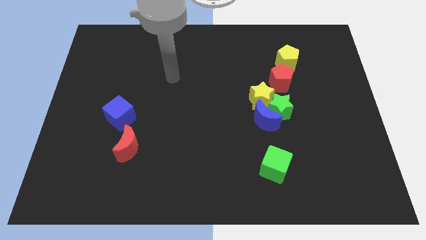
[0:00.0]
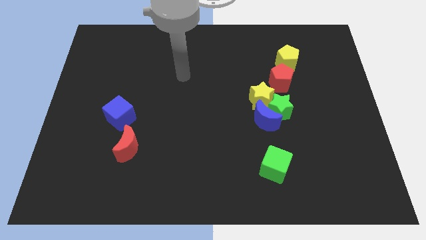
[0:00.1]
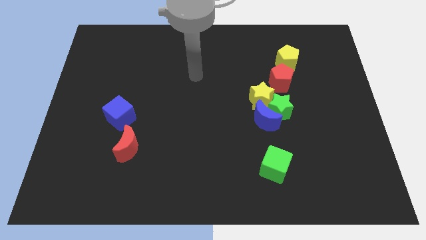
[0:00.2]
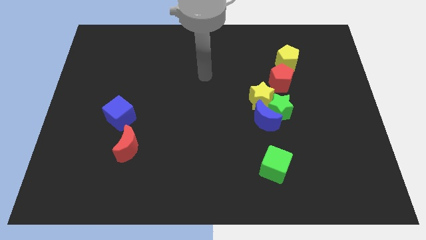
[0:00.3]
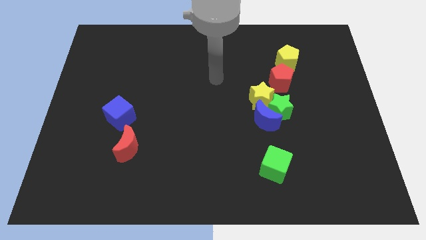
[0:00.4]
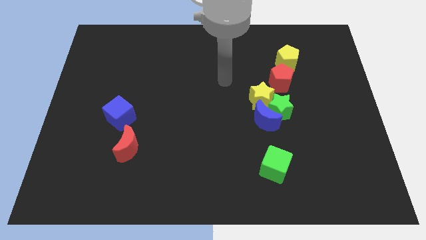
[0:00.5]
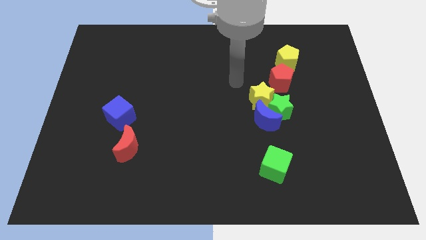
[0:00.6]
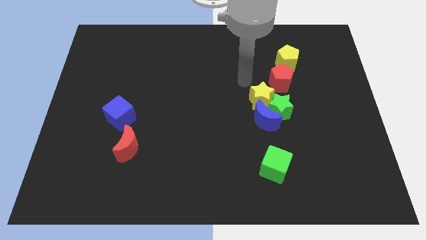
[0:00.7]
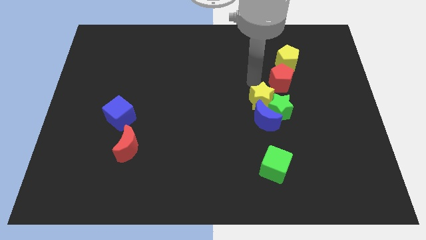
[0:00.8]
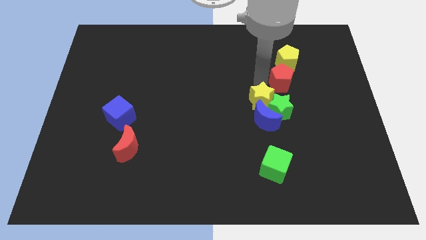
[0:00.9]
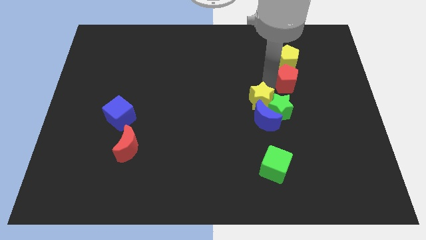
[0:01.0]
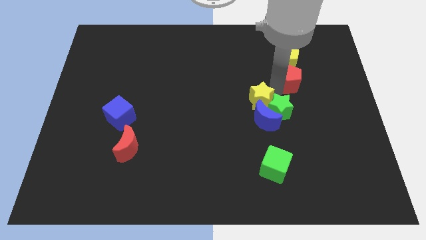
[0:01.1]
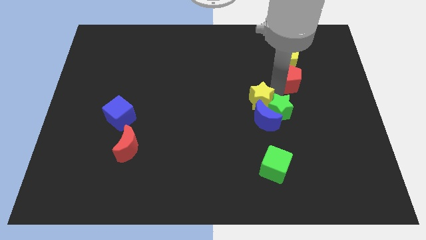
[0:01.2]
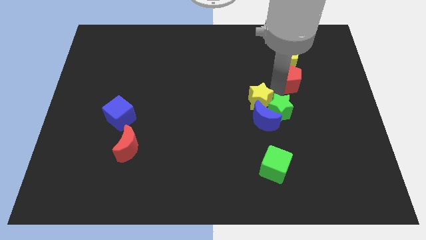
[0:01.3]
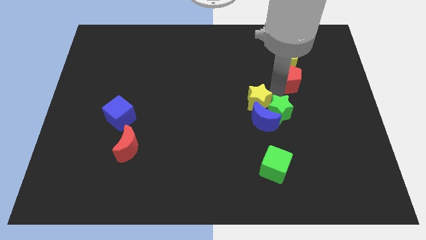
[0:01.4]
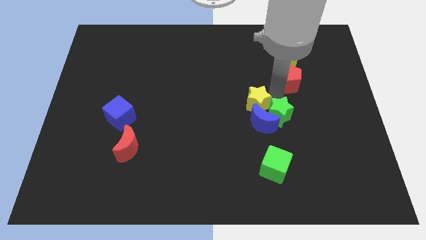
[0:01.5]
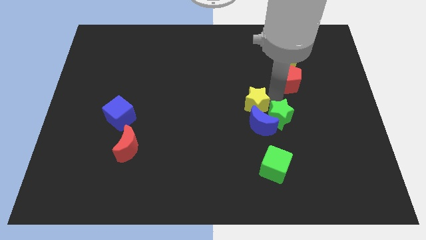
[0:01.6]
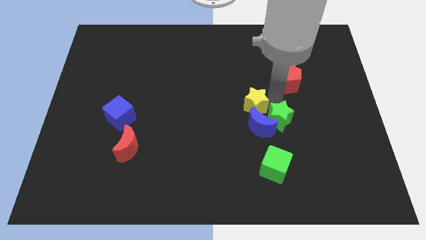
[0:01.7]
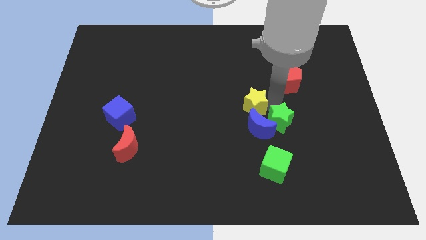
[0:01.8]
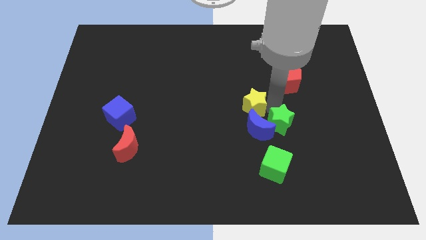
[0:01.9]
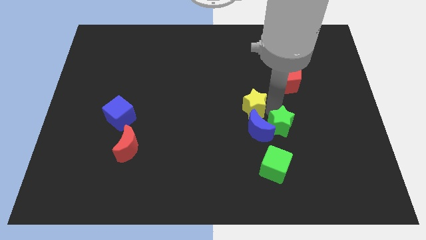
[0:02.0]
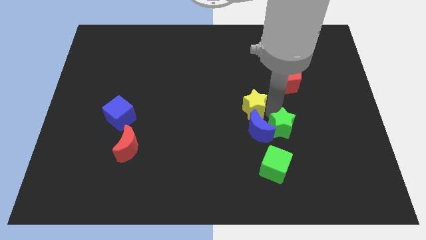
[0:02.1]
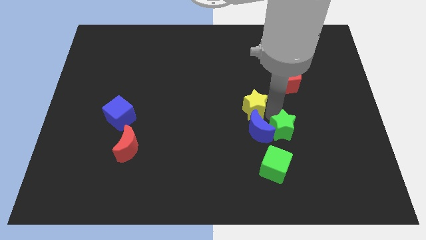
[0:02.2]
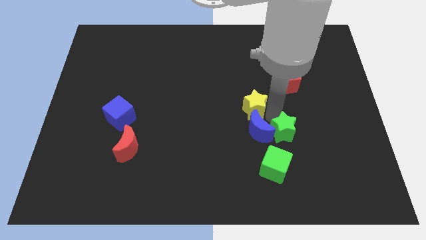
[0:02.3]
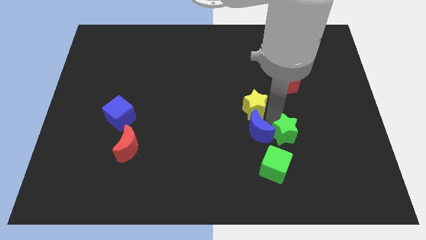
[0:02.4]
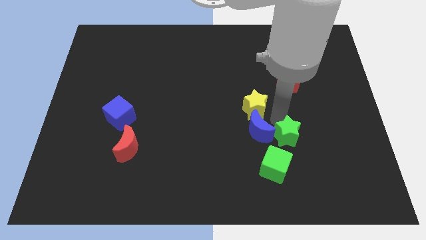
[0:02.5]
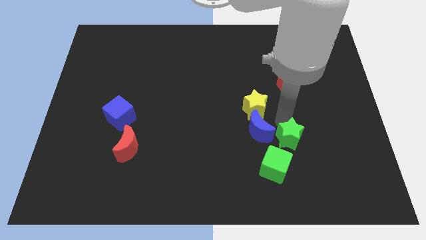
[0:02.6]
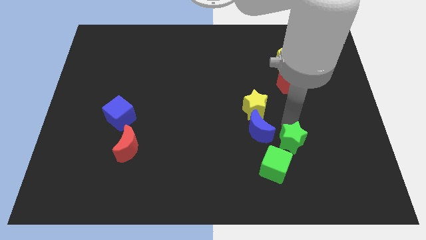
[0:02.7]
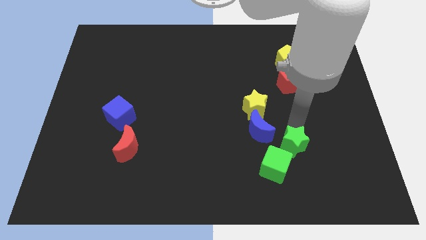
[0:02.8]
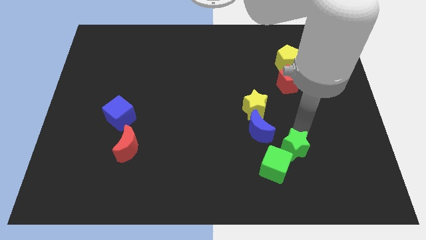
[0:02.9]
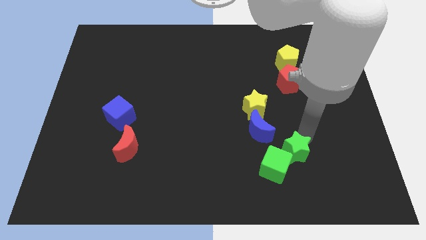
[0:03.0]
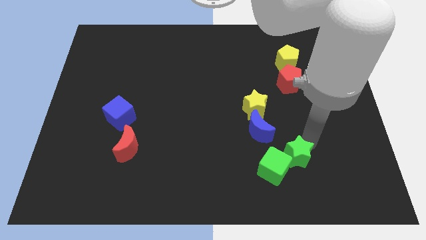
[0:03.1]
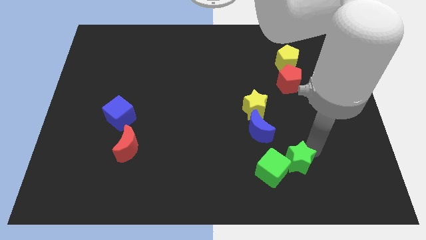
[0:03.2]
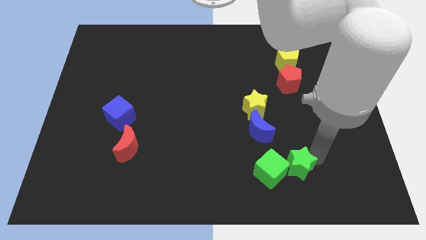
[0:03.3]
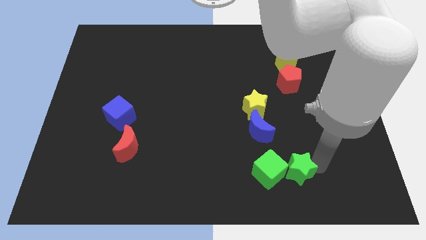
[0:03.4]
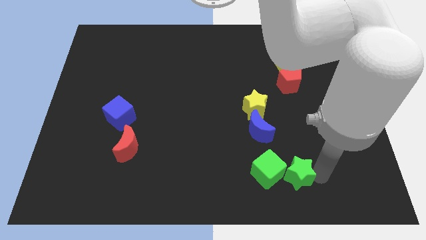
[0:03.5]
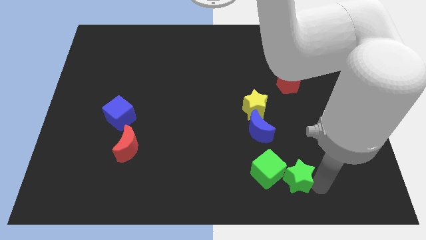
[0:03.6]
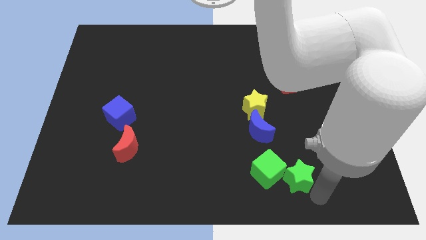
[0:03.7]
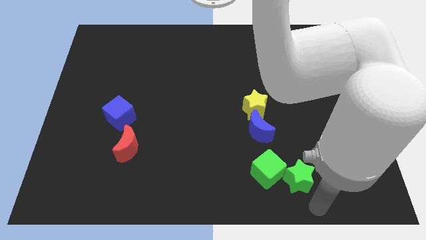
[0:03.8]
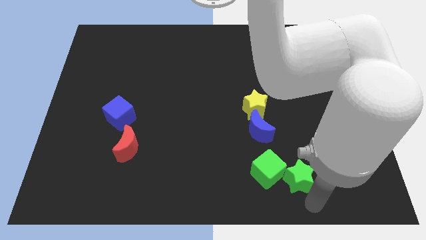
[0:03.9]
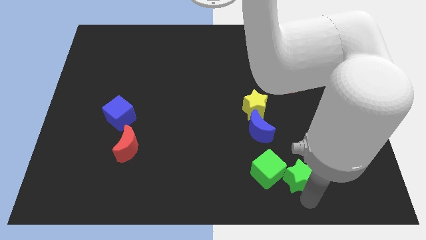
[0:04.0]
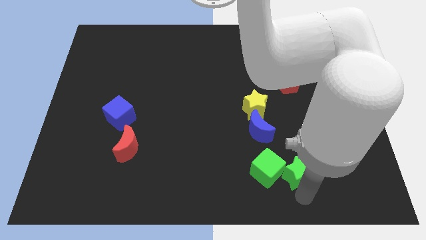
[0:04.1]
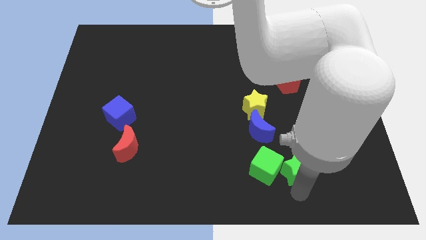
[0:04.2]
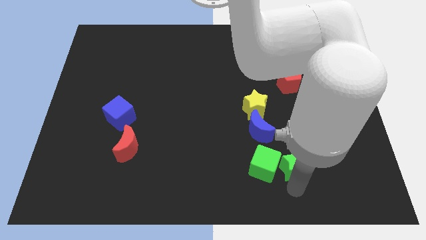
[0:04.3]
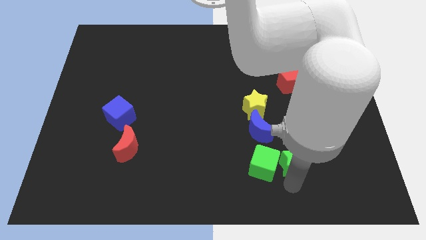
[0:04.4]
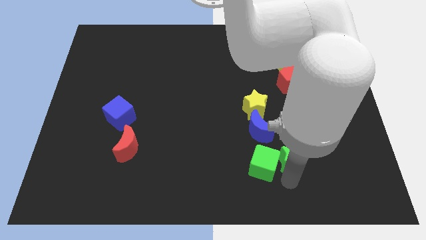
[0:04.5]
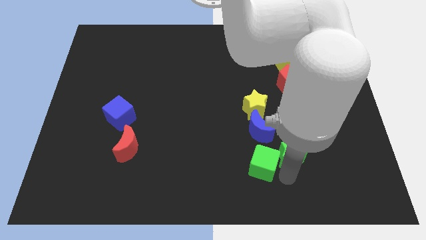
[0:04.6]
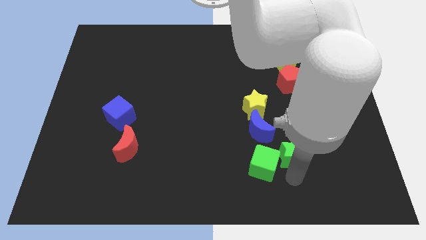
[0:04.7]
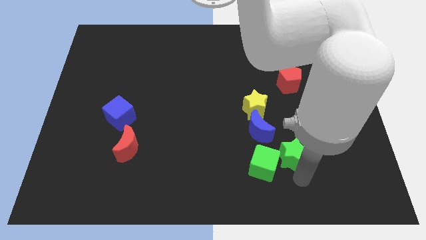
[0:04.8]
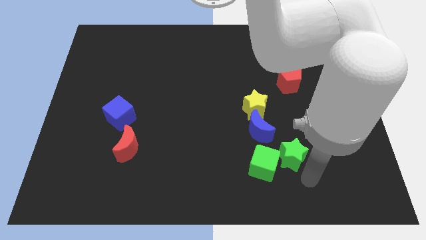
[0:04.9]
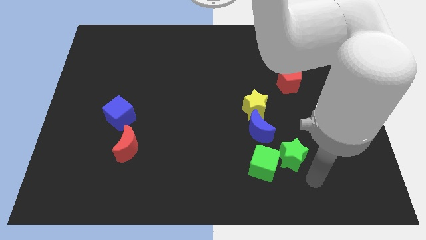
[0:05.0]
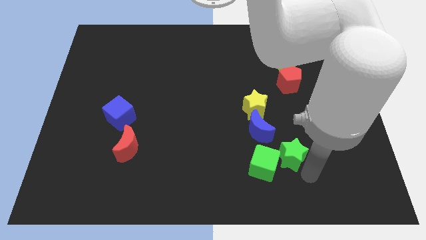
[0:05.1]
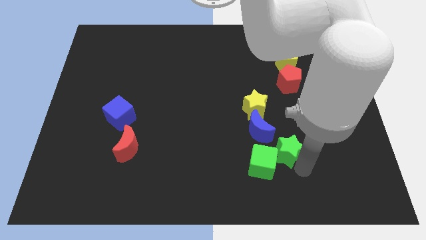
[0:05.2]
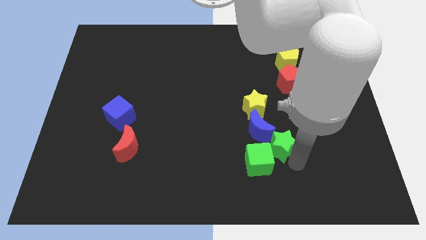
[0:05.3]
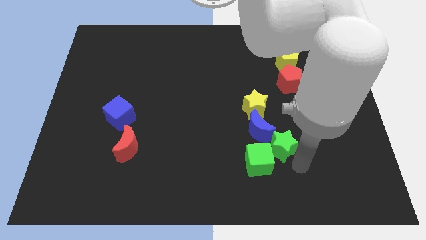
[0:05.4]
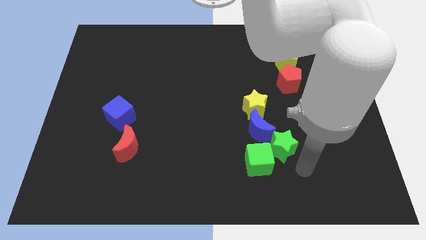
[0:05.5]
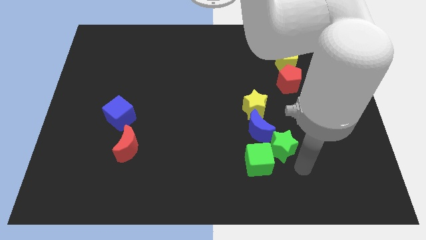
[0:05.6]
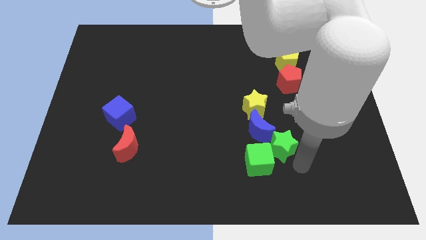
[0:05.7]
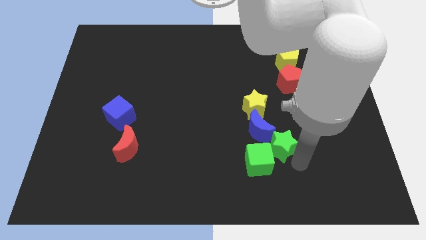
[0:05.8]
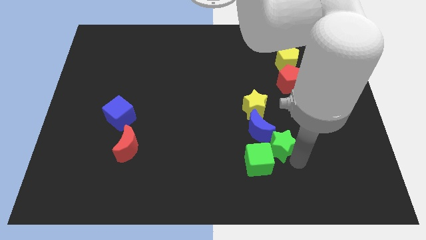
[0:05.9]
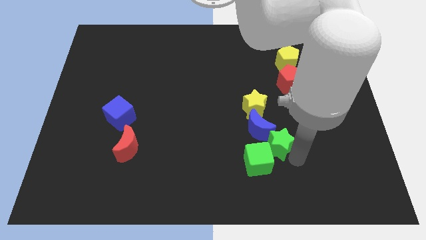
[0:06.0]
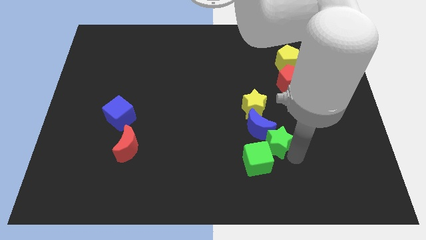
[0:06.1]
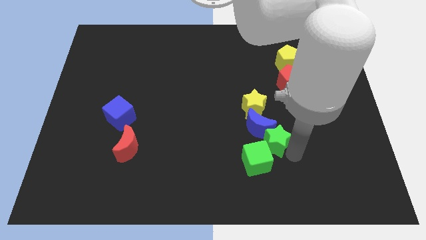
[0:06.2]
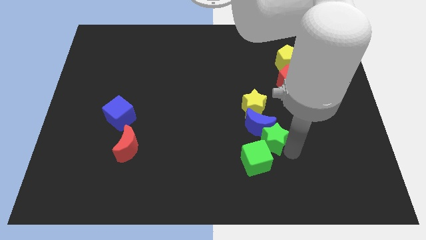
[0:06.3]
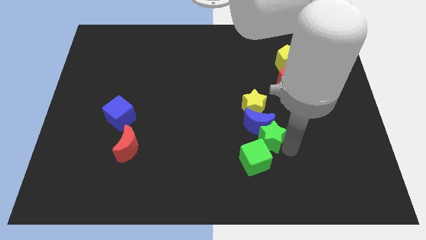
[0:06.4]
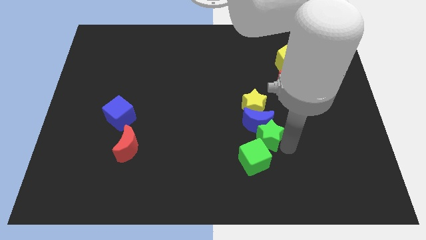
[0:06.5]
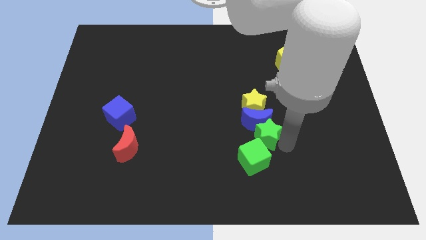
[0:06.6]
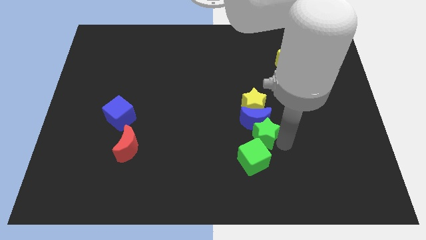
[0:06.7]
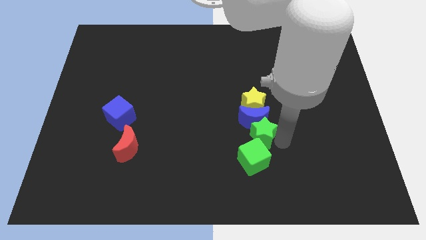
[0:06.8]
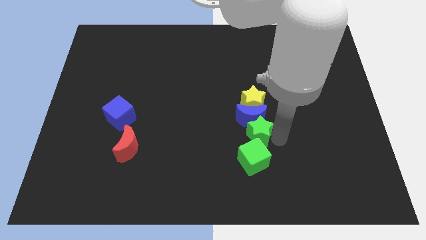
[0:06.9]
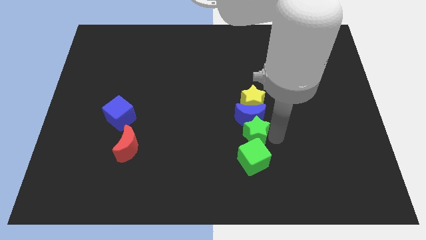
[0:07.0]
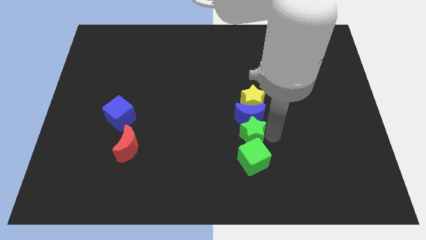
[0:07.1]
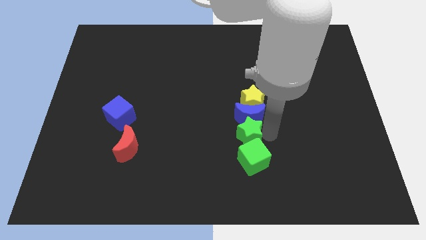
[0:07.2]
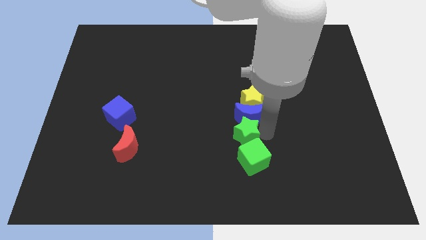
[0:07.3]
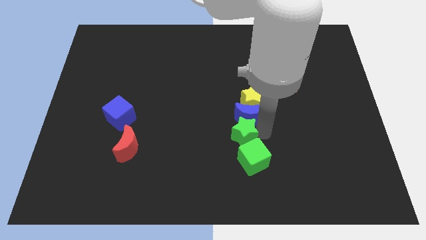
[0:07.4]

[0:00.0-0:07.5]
push the green star a little to the left

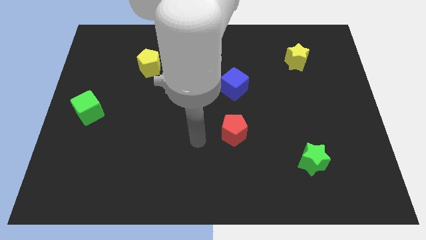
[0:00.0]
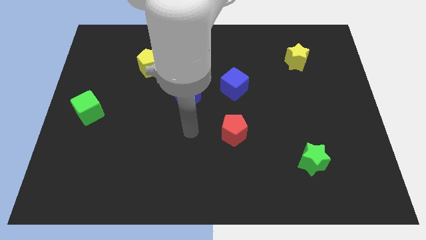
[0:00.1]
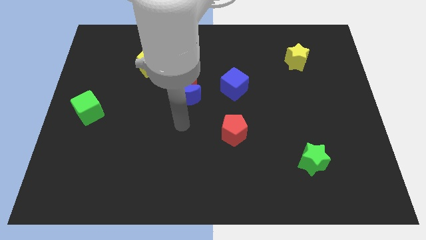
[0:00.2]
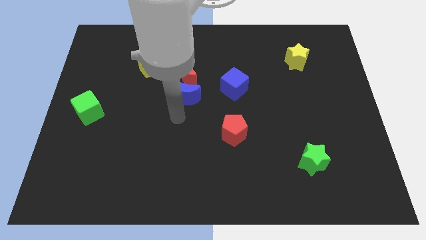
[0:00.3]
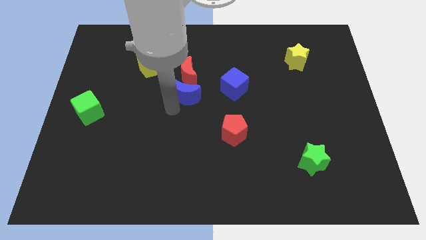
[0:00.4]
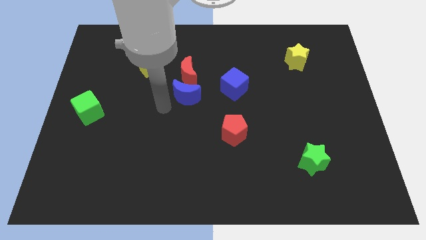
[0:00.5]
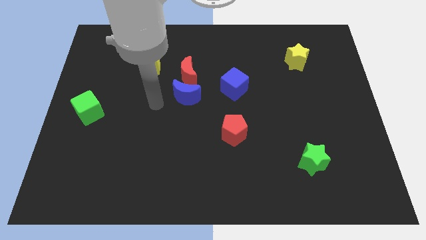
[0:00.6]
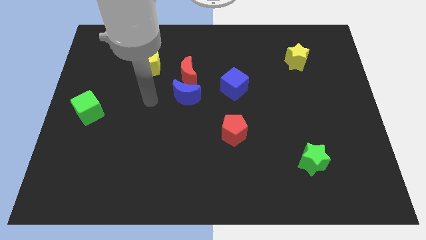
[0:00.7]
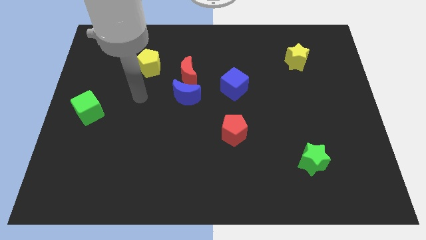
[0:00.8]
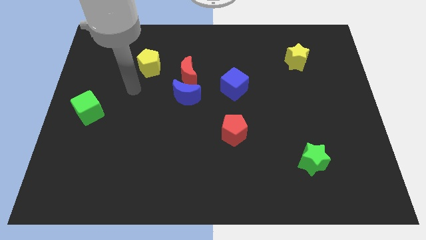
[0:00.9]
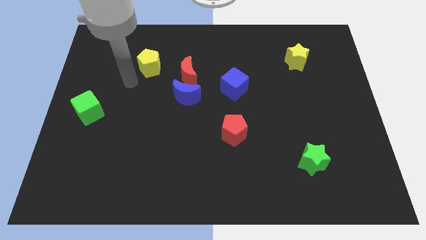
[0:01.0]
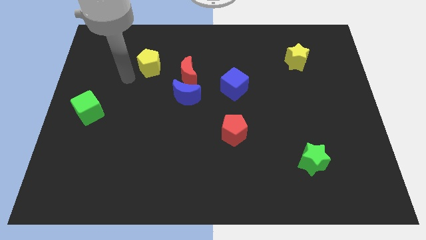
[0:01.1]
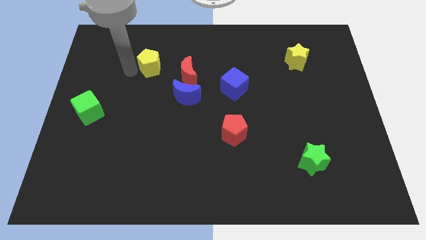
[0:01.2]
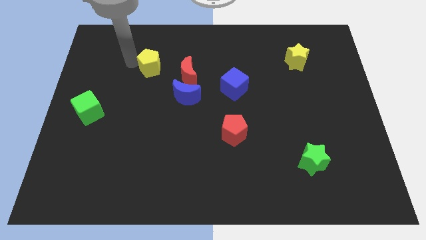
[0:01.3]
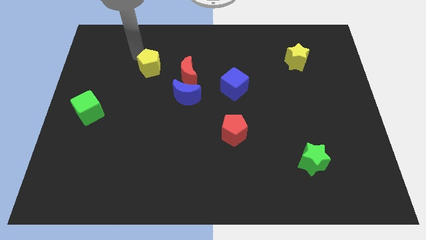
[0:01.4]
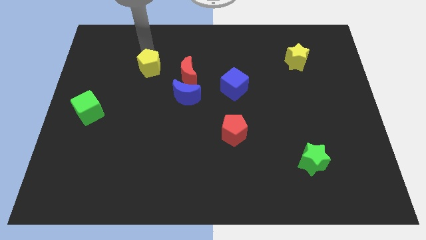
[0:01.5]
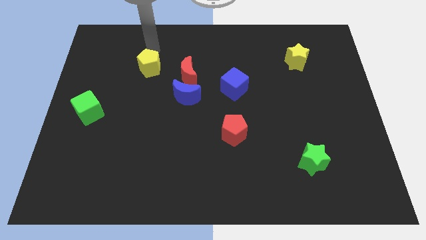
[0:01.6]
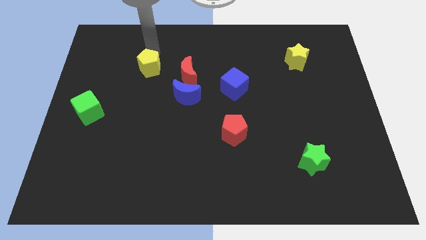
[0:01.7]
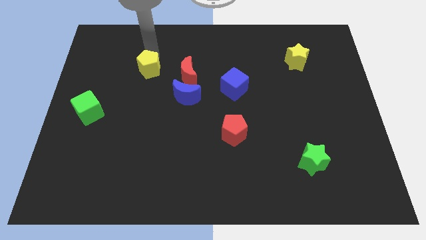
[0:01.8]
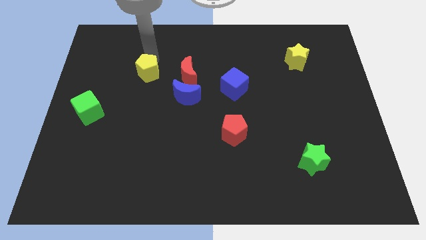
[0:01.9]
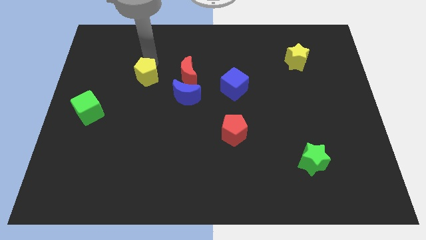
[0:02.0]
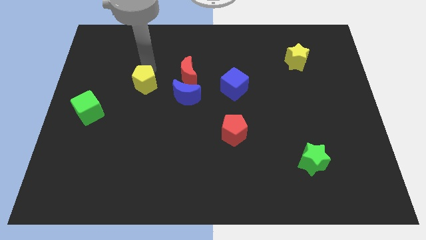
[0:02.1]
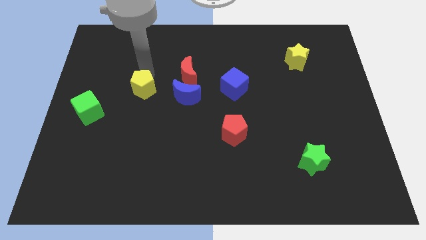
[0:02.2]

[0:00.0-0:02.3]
move the yellow pentagon a little down
